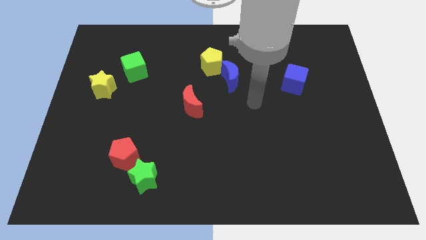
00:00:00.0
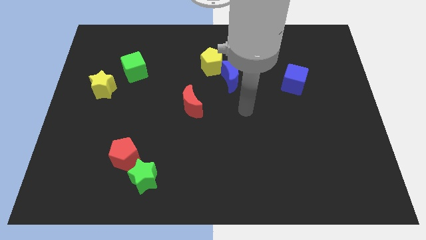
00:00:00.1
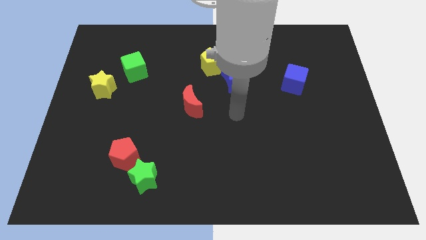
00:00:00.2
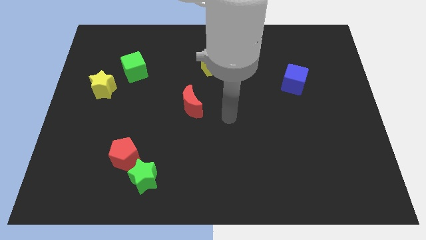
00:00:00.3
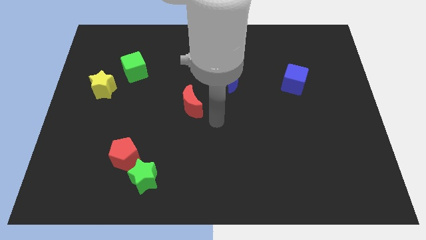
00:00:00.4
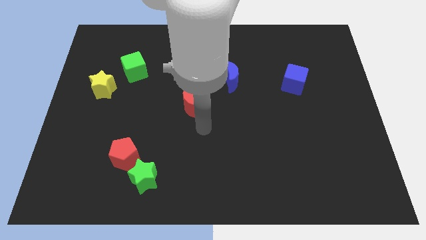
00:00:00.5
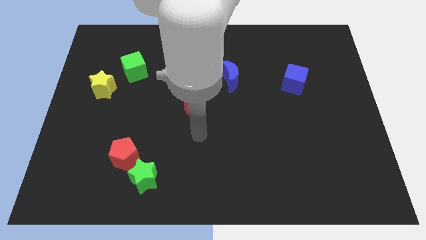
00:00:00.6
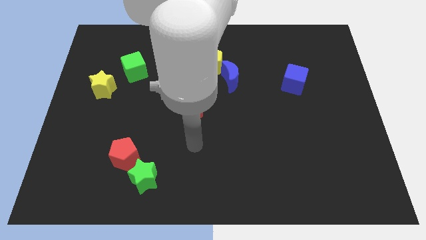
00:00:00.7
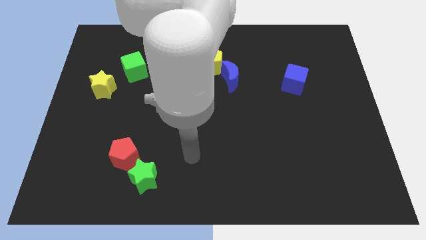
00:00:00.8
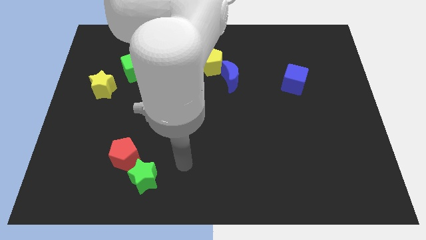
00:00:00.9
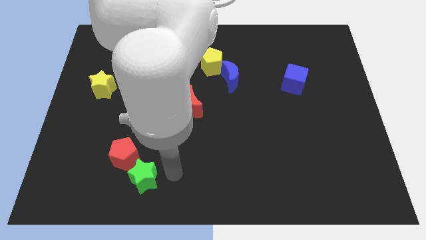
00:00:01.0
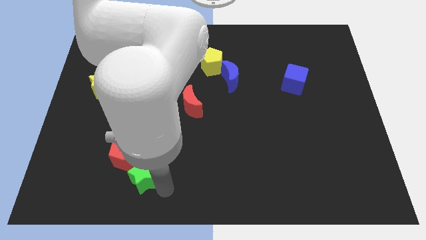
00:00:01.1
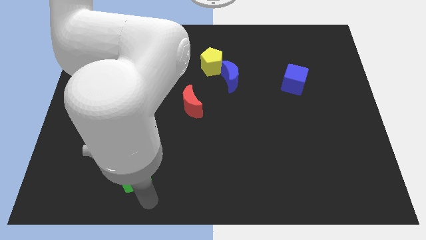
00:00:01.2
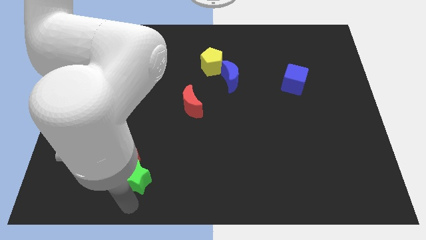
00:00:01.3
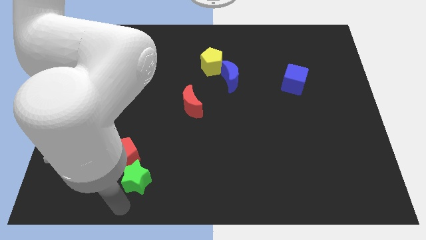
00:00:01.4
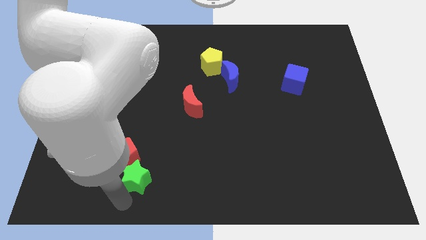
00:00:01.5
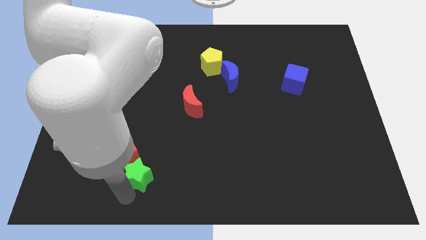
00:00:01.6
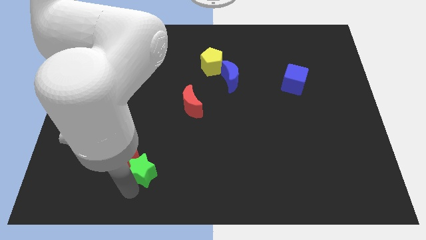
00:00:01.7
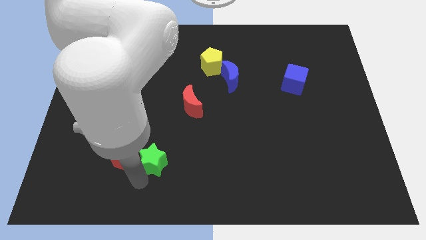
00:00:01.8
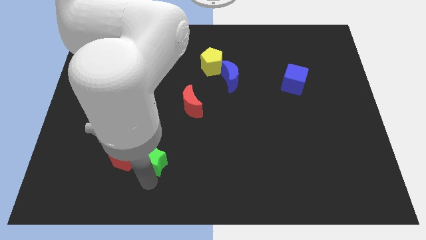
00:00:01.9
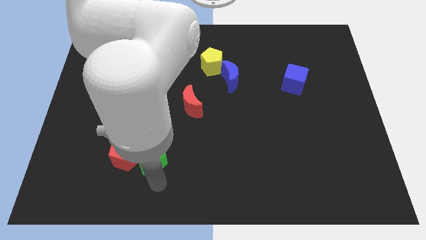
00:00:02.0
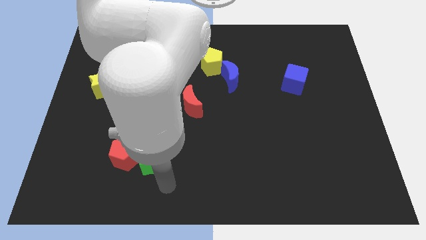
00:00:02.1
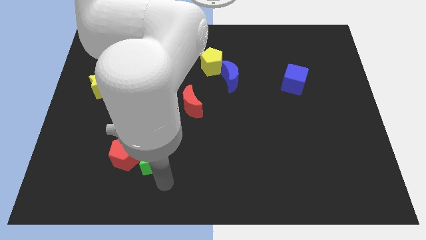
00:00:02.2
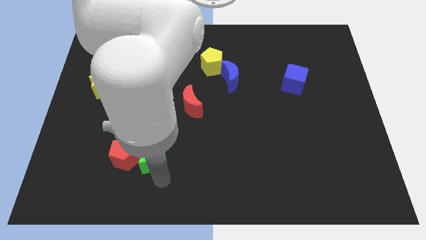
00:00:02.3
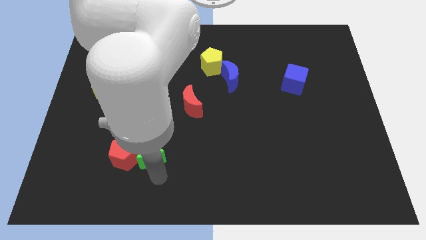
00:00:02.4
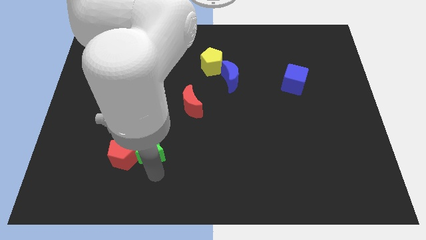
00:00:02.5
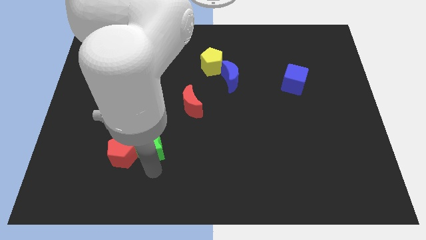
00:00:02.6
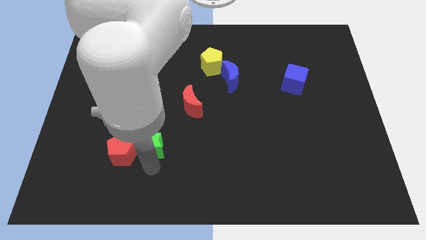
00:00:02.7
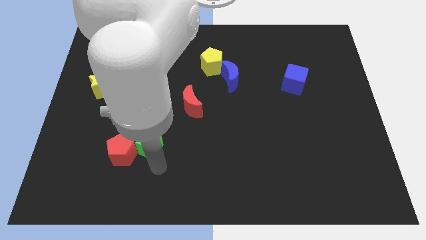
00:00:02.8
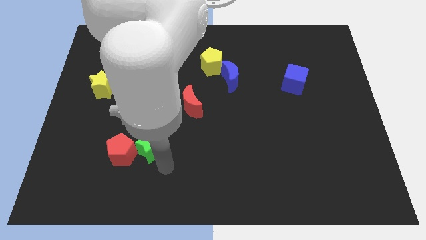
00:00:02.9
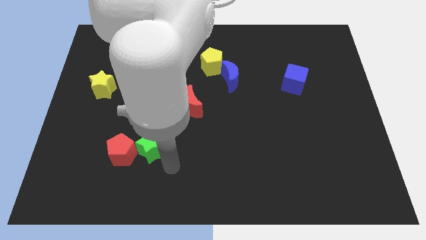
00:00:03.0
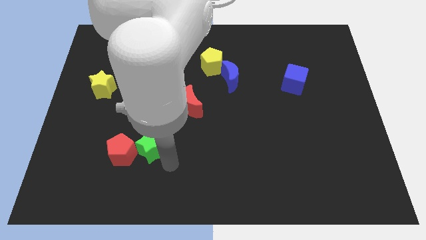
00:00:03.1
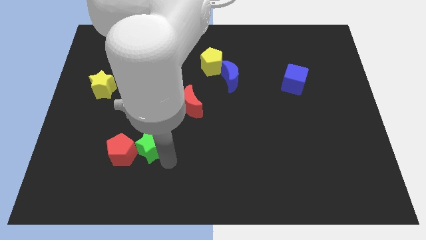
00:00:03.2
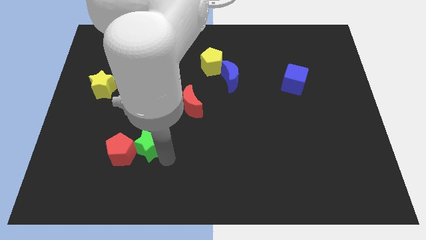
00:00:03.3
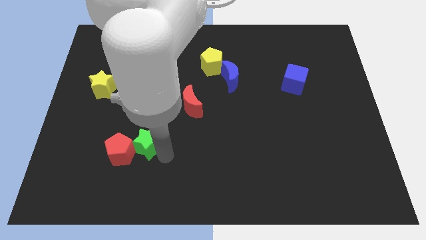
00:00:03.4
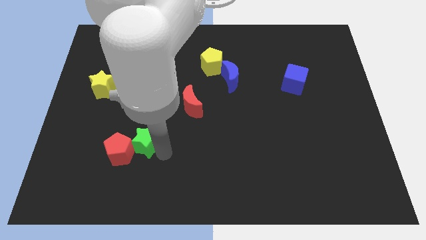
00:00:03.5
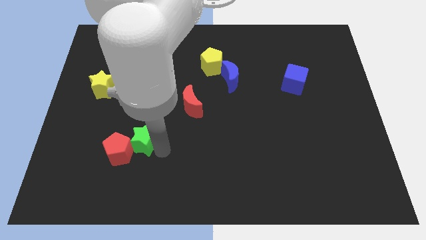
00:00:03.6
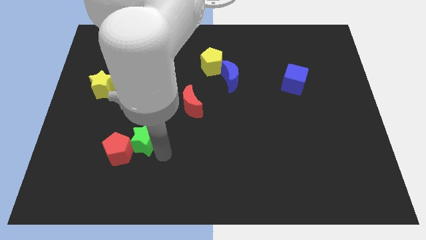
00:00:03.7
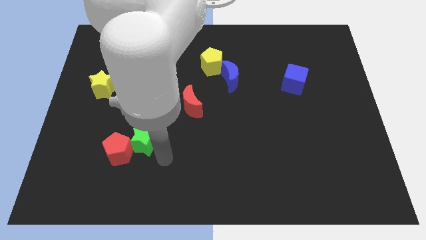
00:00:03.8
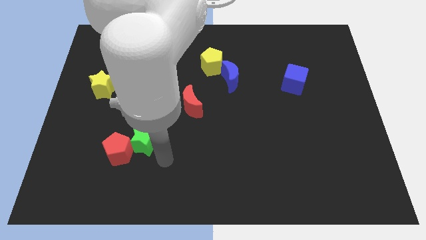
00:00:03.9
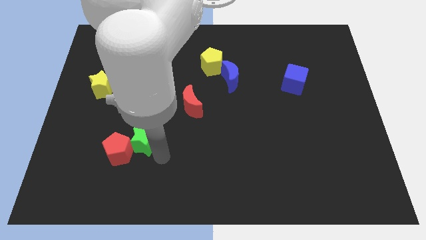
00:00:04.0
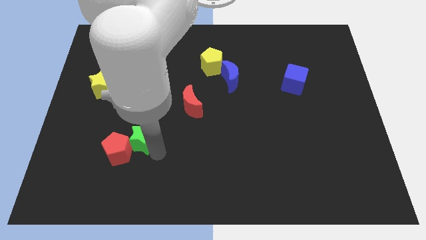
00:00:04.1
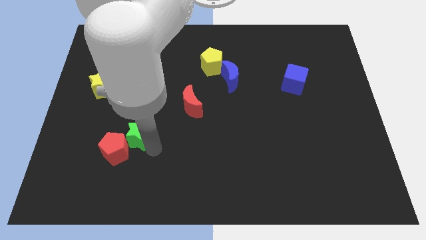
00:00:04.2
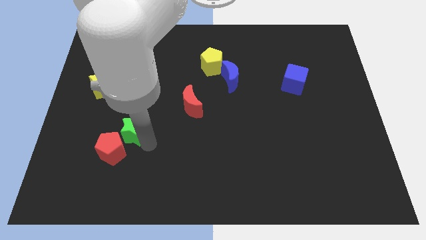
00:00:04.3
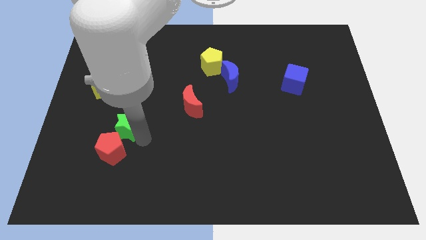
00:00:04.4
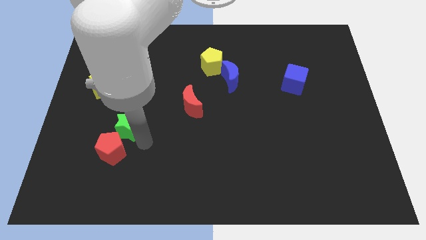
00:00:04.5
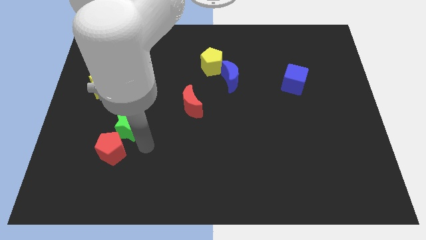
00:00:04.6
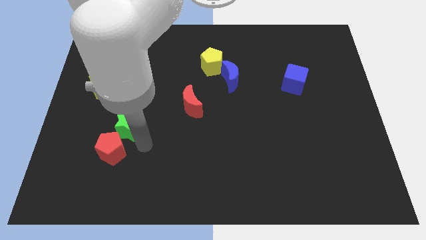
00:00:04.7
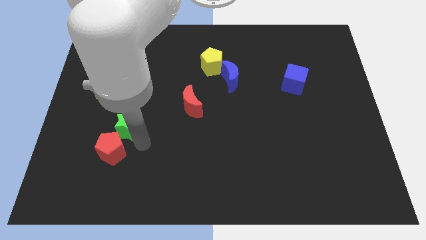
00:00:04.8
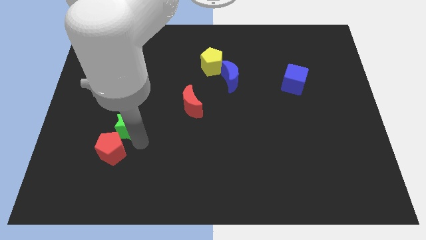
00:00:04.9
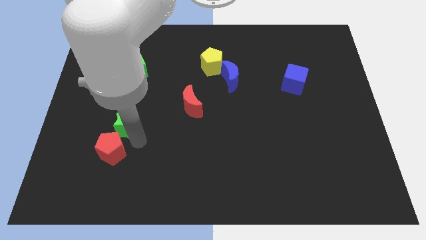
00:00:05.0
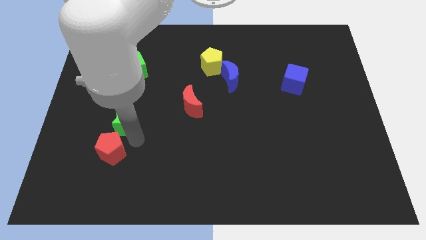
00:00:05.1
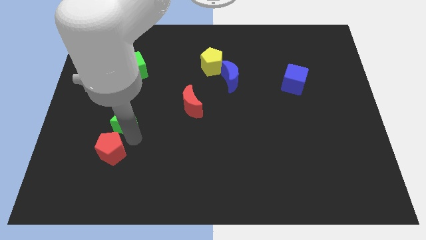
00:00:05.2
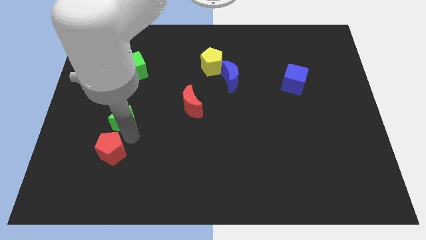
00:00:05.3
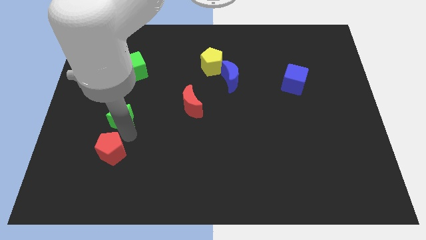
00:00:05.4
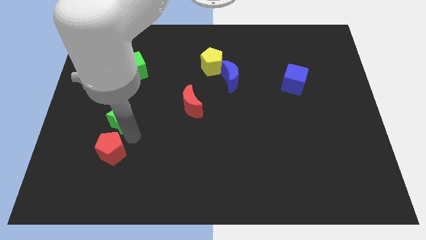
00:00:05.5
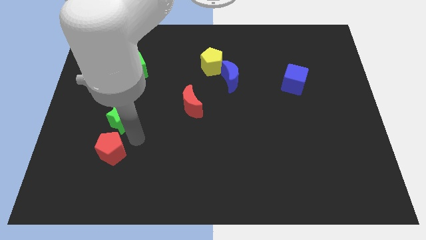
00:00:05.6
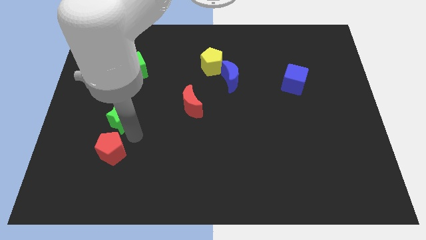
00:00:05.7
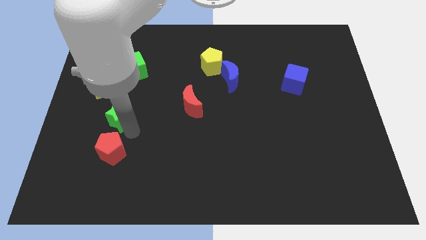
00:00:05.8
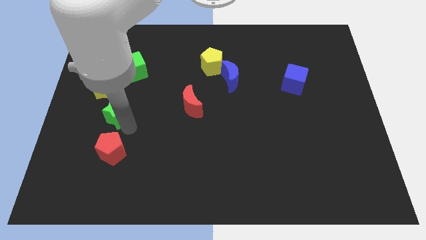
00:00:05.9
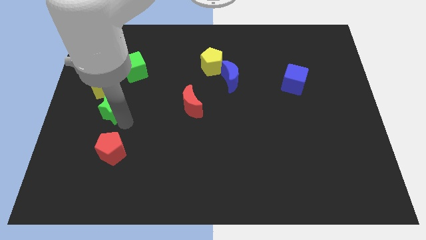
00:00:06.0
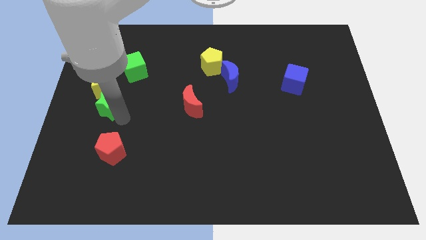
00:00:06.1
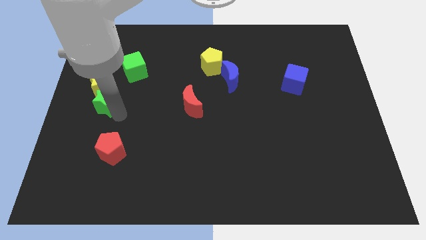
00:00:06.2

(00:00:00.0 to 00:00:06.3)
put the green star to the yellow star
